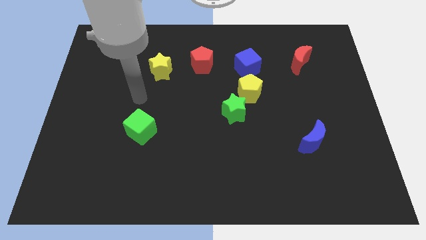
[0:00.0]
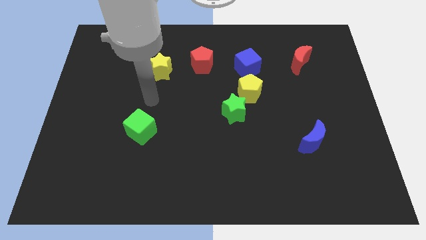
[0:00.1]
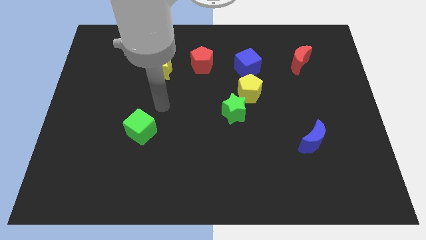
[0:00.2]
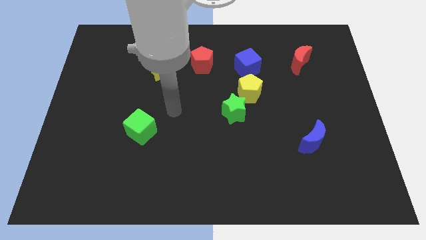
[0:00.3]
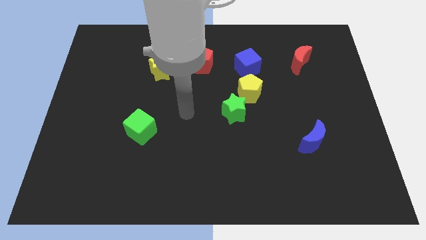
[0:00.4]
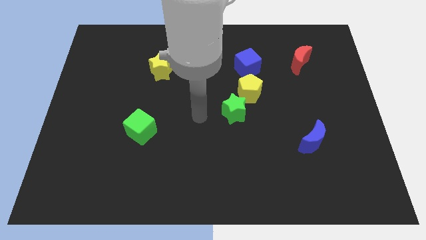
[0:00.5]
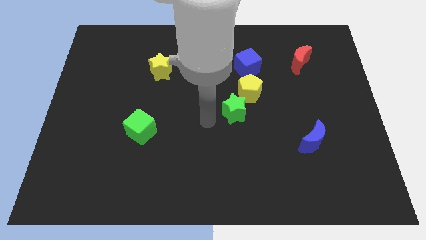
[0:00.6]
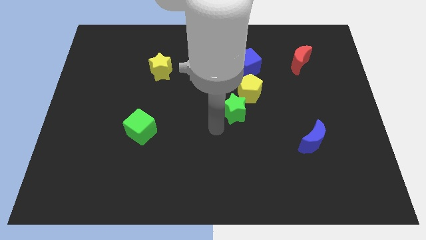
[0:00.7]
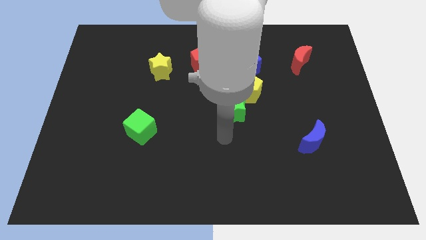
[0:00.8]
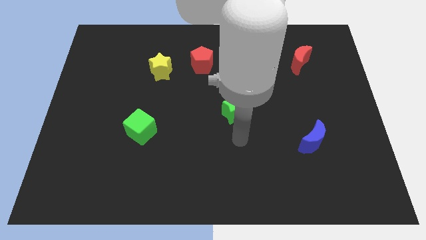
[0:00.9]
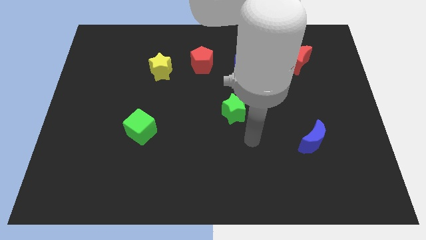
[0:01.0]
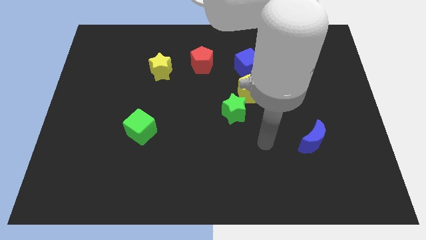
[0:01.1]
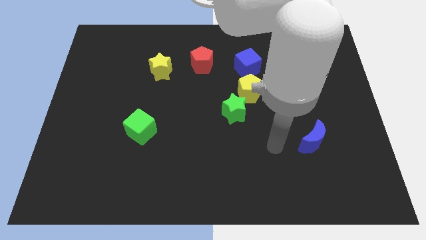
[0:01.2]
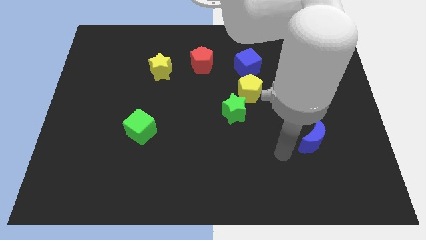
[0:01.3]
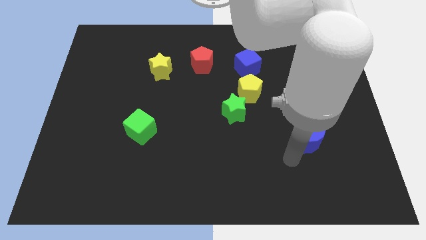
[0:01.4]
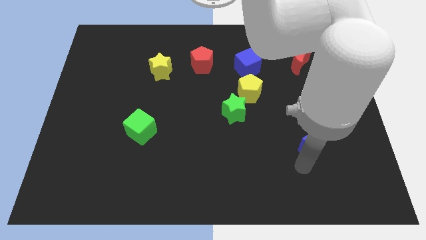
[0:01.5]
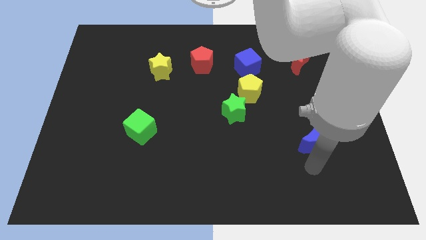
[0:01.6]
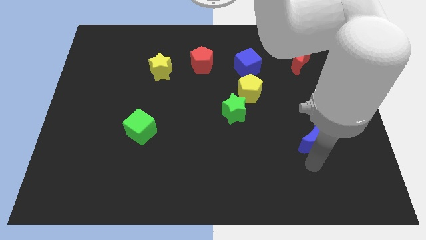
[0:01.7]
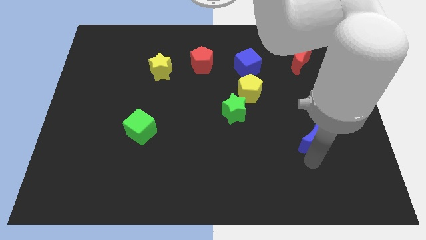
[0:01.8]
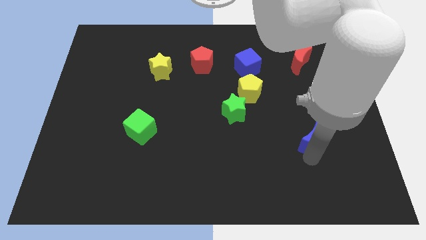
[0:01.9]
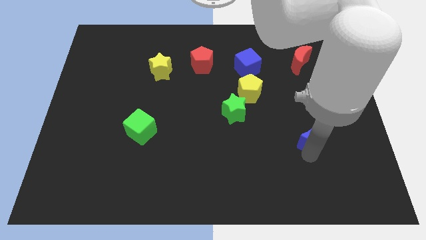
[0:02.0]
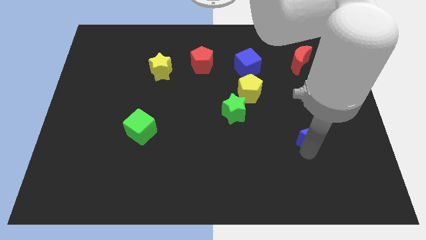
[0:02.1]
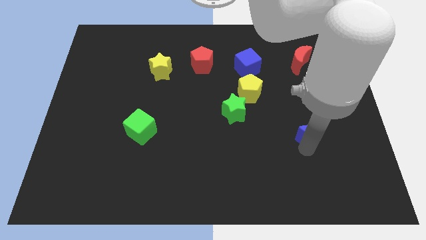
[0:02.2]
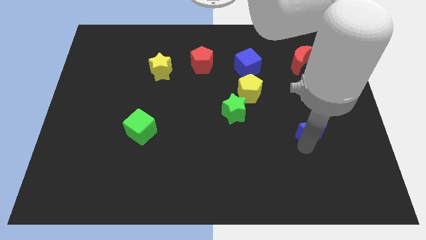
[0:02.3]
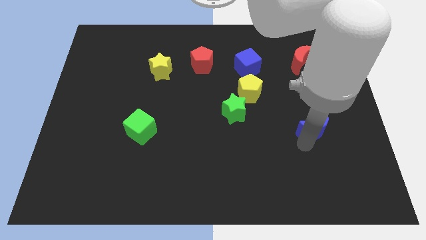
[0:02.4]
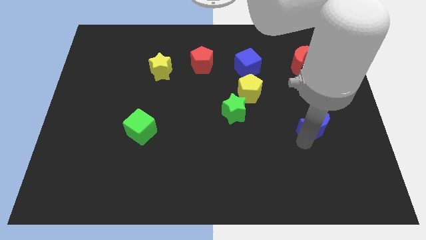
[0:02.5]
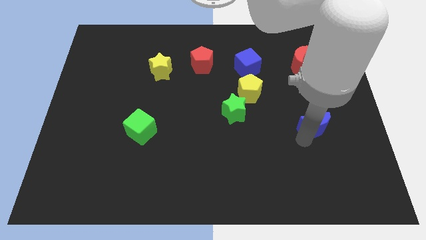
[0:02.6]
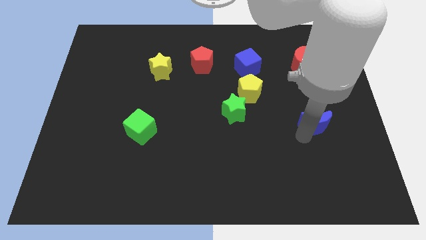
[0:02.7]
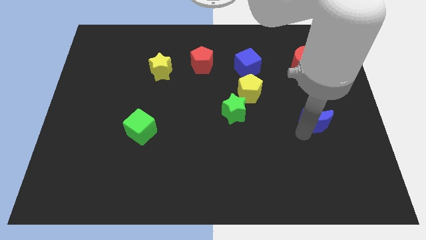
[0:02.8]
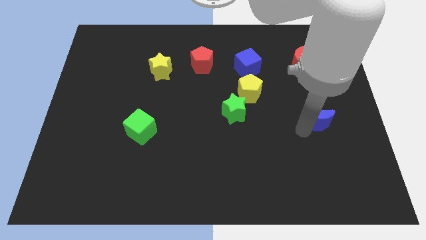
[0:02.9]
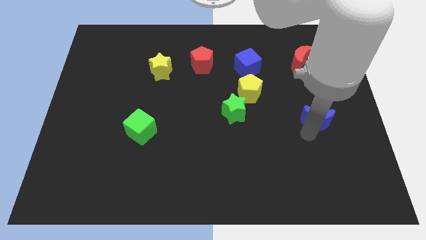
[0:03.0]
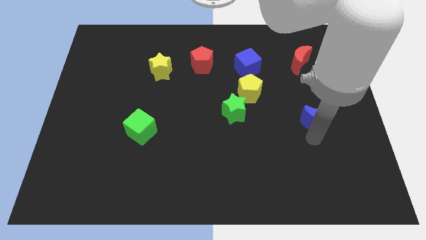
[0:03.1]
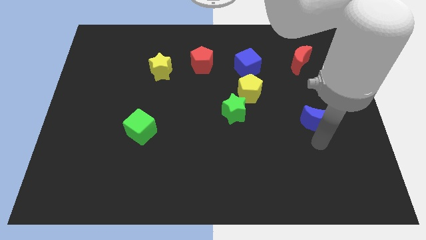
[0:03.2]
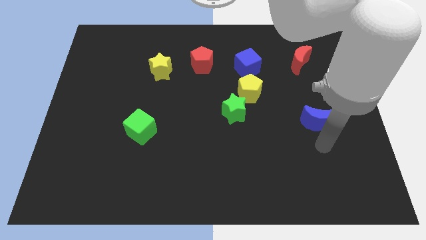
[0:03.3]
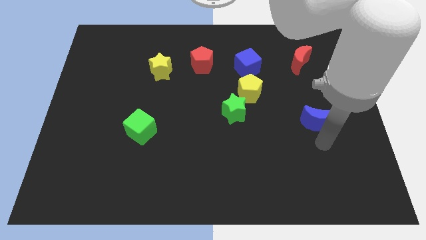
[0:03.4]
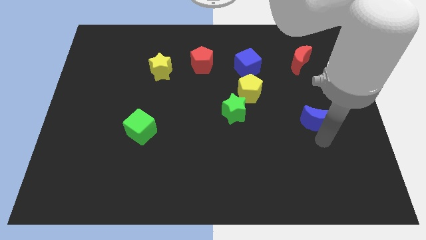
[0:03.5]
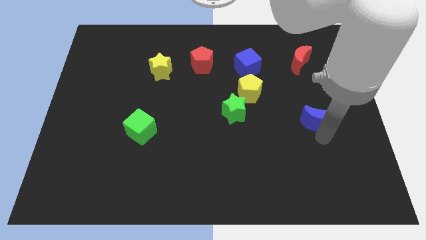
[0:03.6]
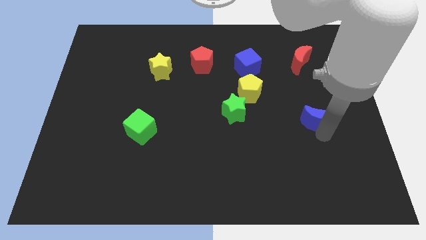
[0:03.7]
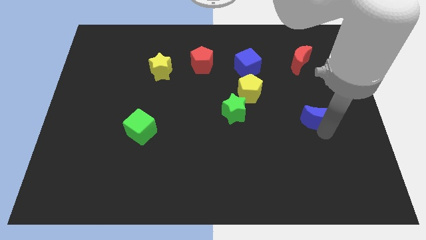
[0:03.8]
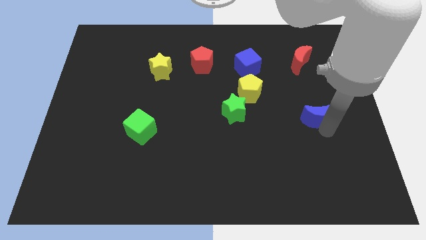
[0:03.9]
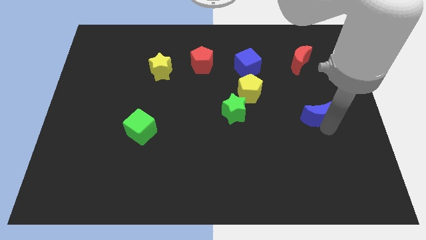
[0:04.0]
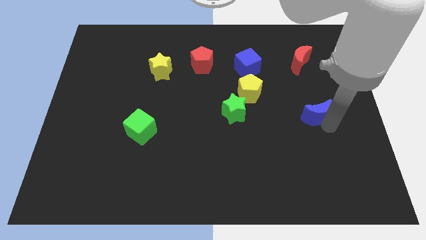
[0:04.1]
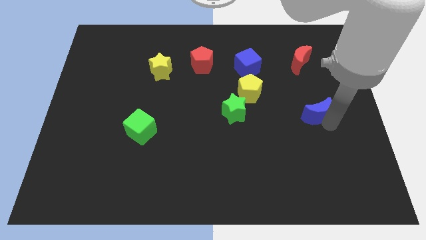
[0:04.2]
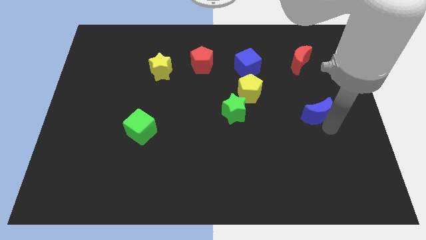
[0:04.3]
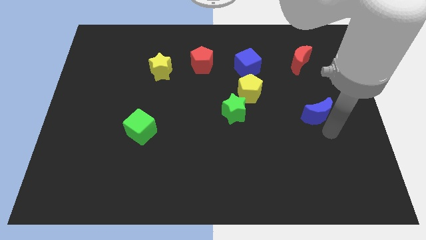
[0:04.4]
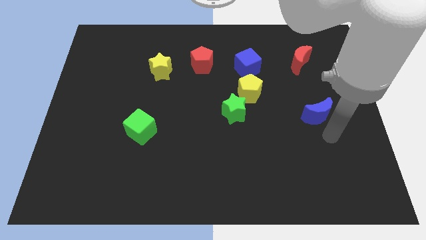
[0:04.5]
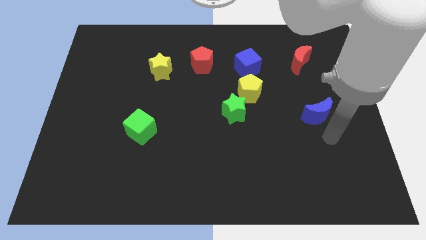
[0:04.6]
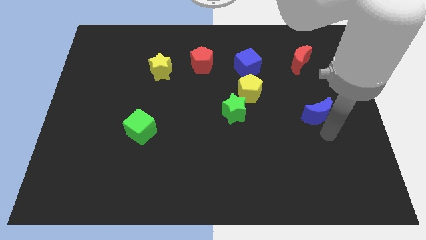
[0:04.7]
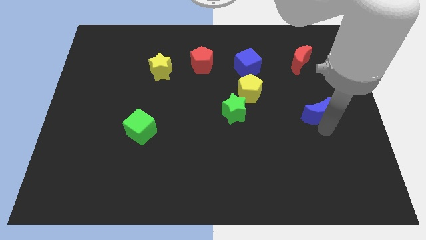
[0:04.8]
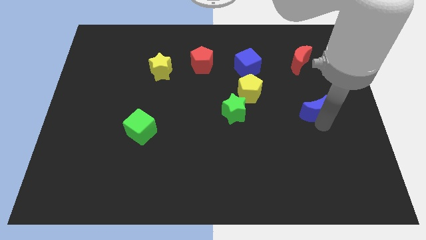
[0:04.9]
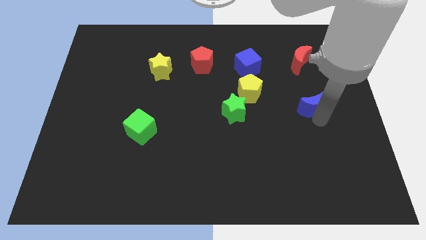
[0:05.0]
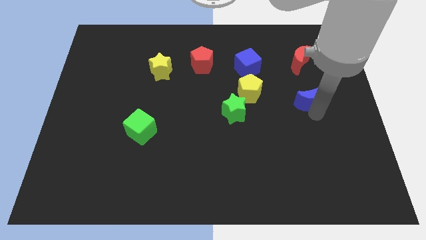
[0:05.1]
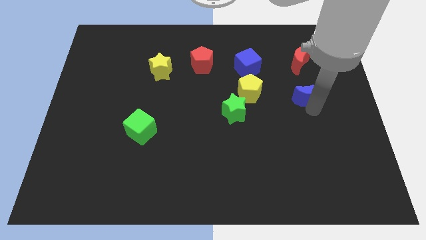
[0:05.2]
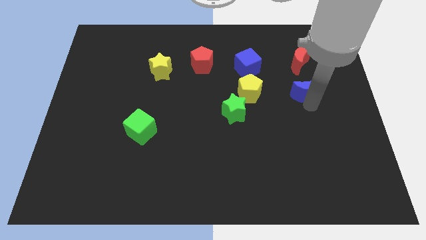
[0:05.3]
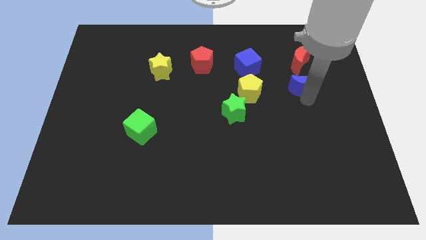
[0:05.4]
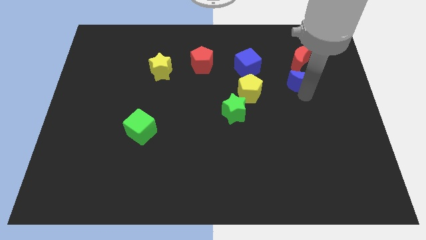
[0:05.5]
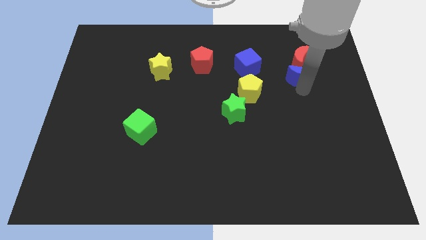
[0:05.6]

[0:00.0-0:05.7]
slide the blue moon close to the red moon

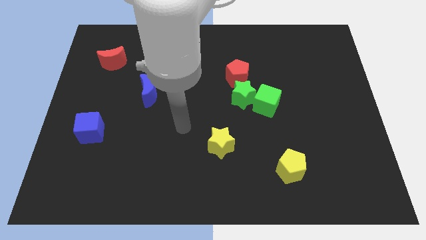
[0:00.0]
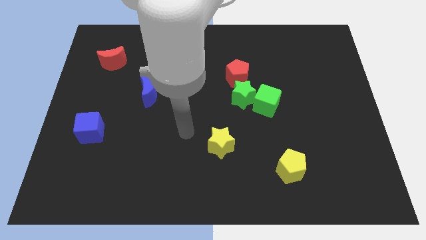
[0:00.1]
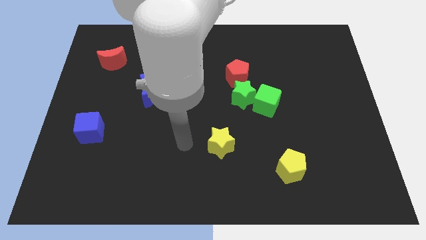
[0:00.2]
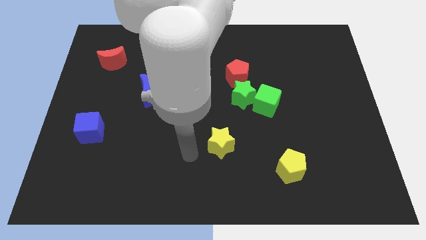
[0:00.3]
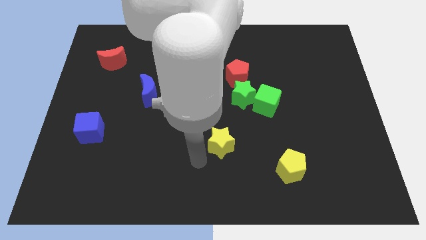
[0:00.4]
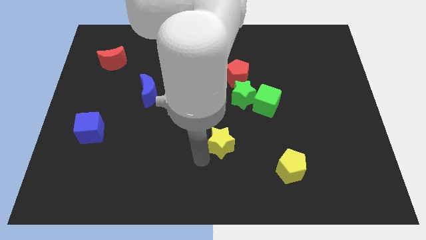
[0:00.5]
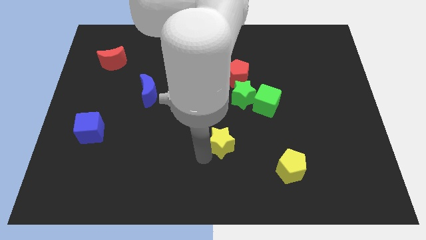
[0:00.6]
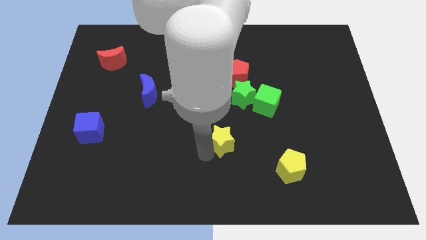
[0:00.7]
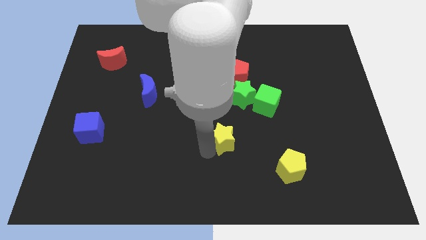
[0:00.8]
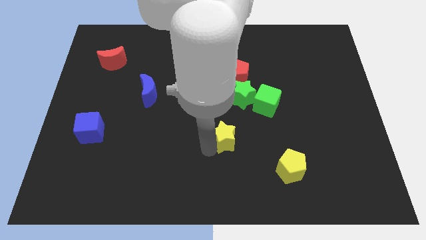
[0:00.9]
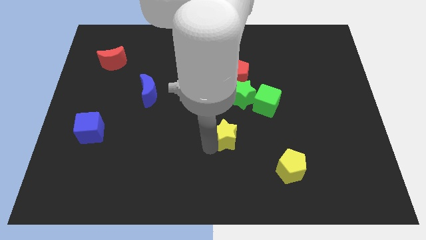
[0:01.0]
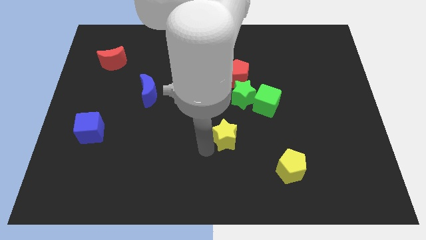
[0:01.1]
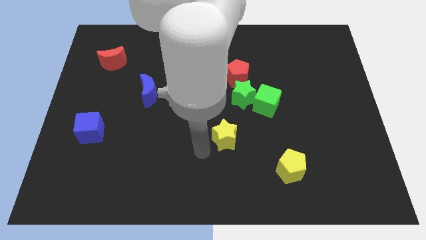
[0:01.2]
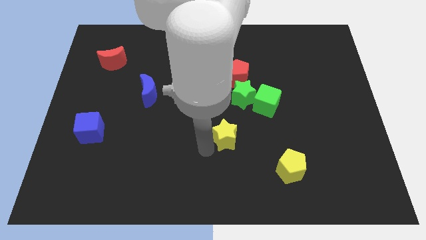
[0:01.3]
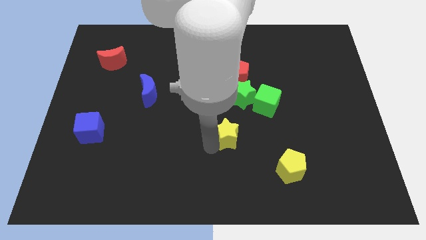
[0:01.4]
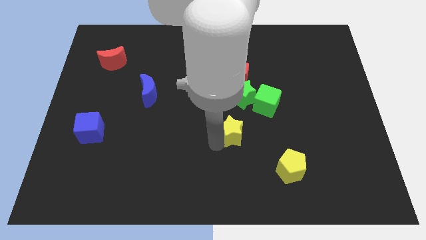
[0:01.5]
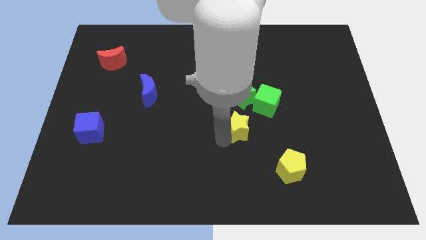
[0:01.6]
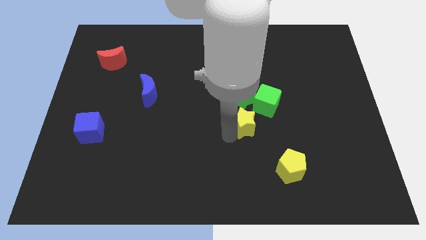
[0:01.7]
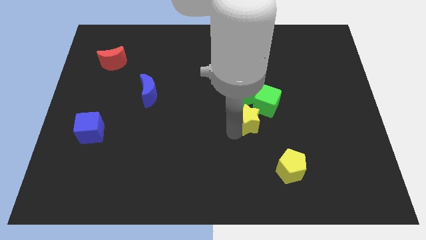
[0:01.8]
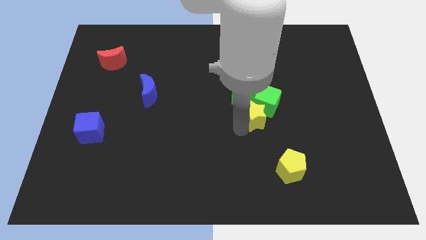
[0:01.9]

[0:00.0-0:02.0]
slide the yellow star to the green cube
